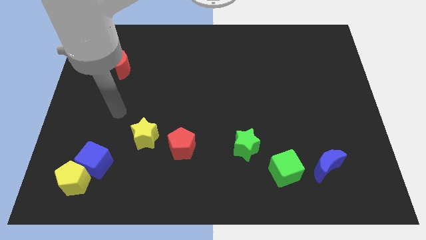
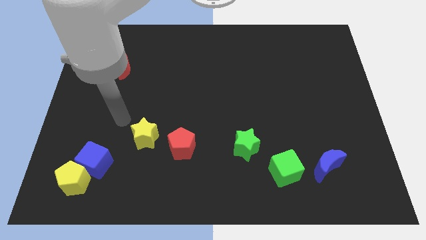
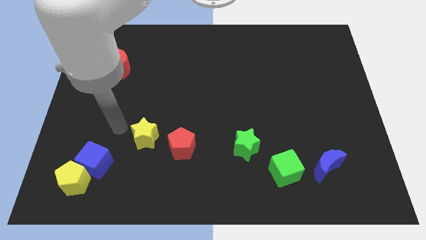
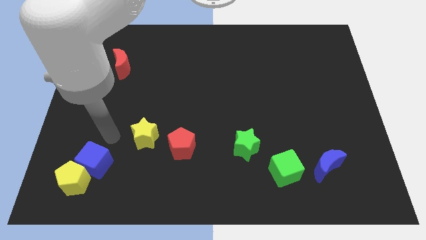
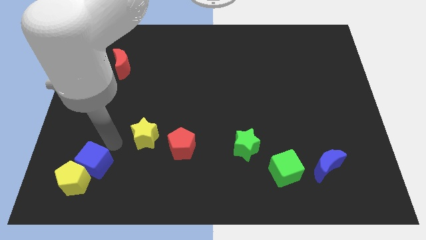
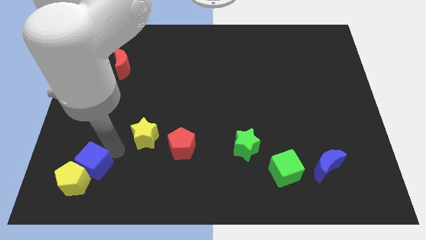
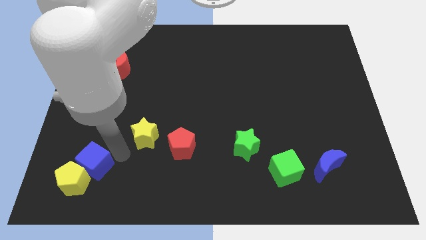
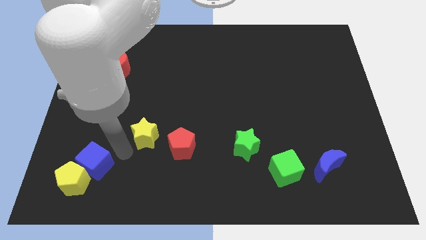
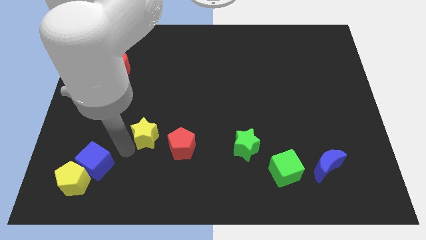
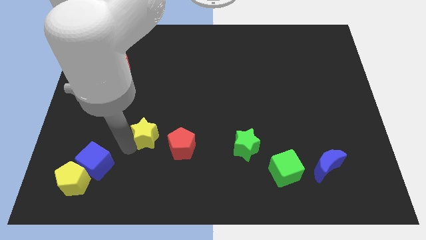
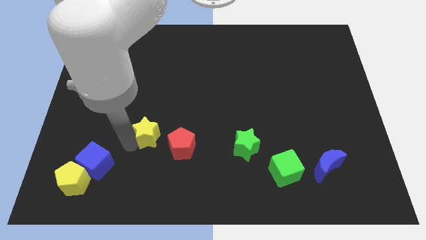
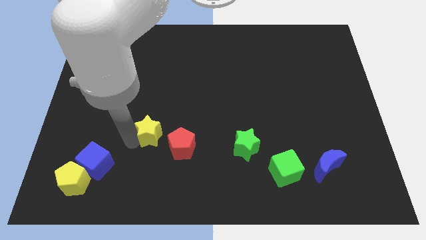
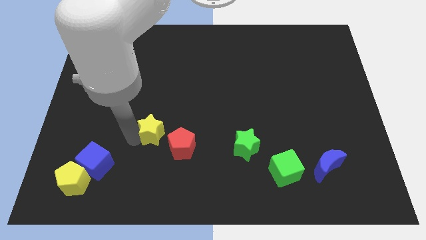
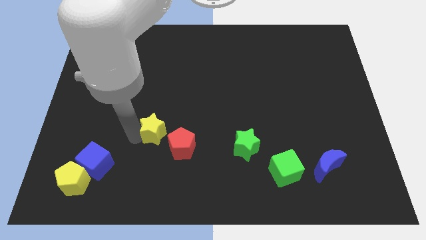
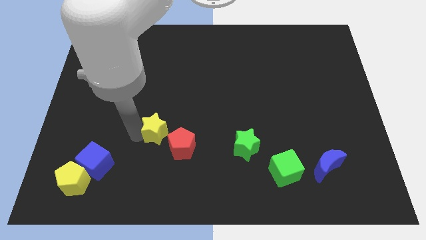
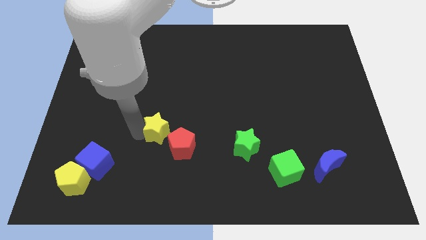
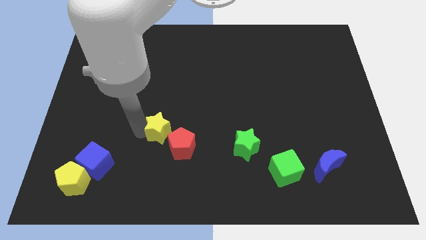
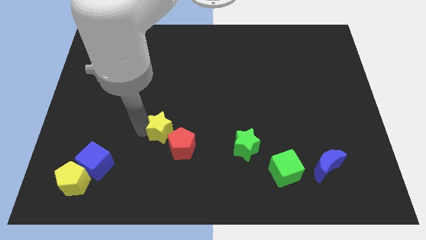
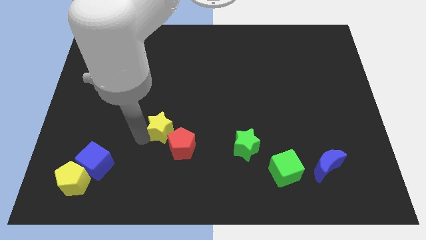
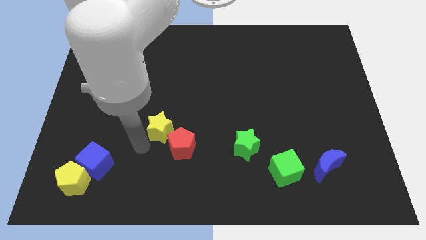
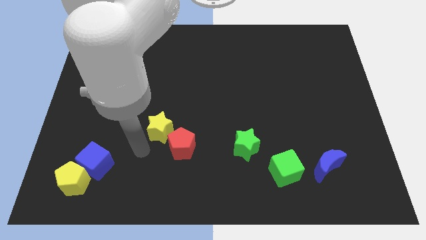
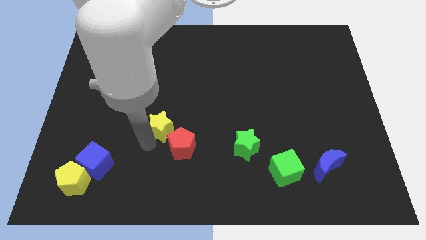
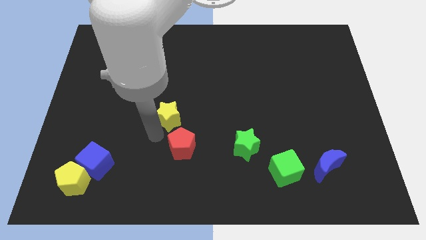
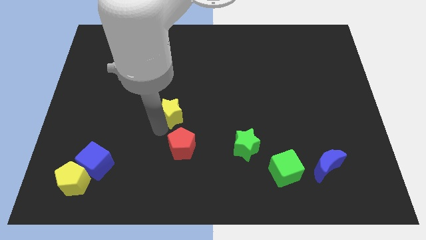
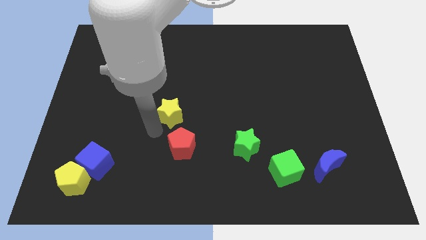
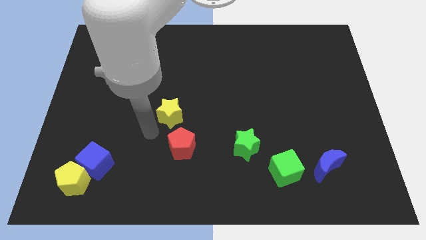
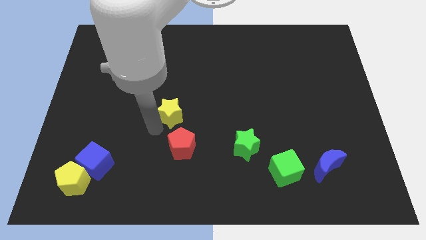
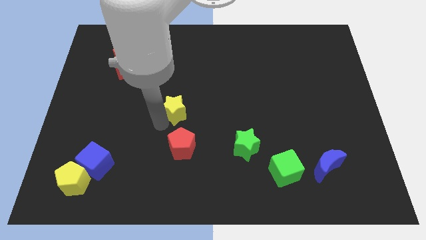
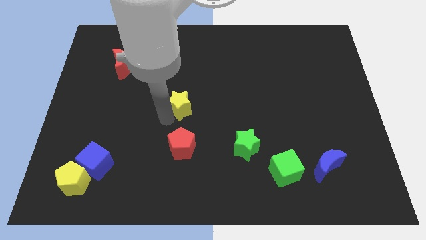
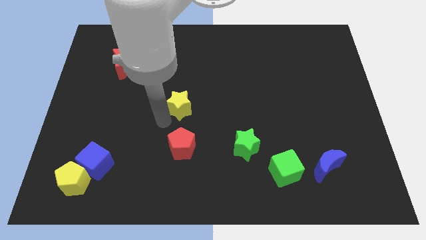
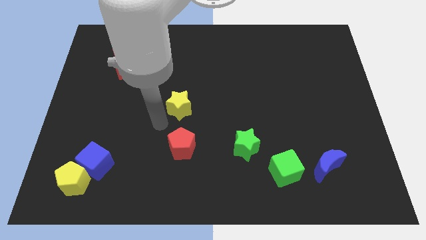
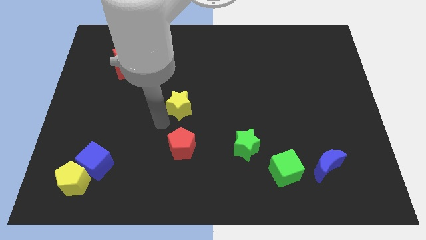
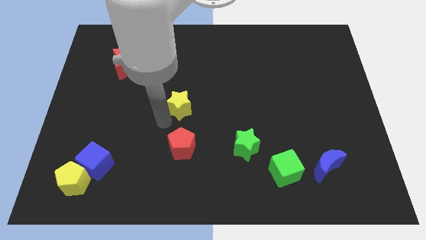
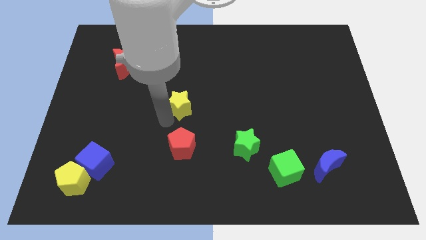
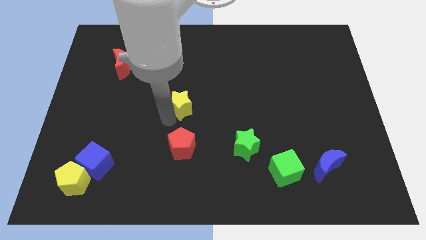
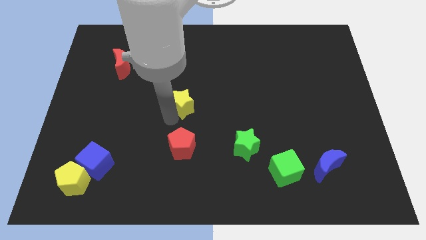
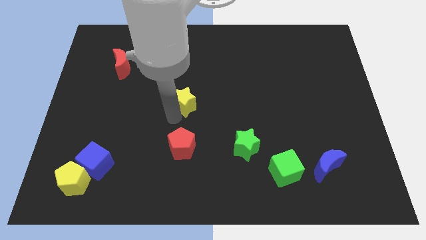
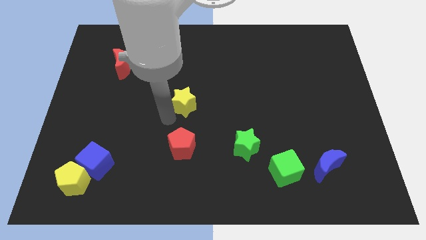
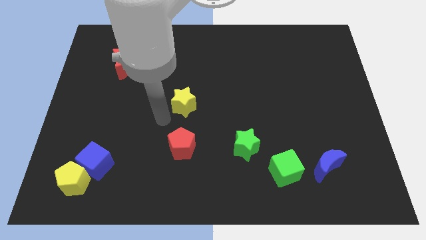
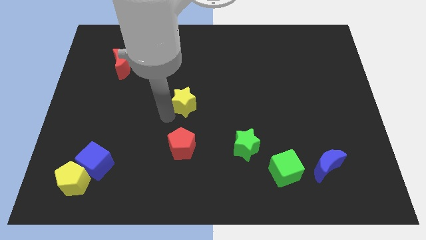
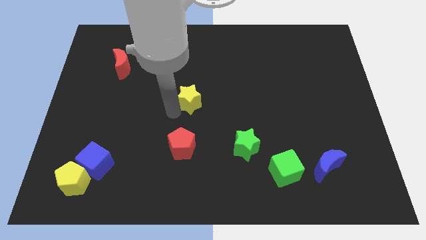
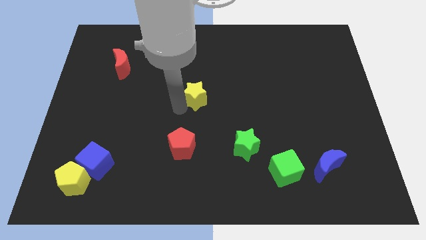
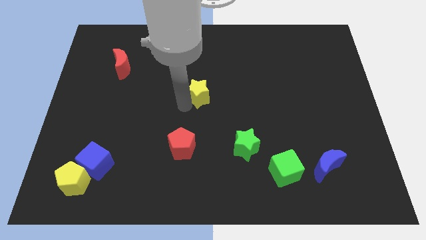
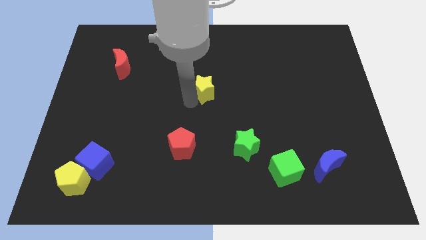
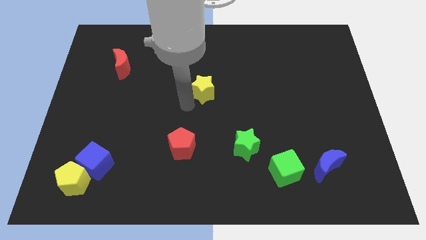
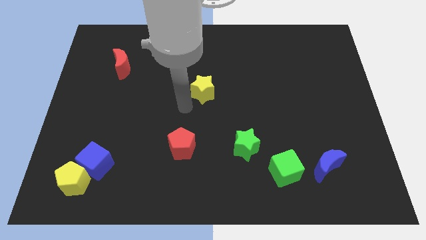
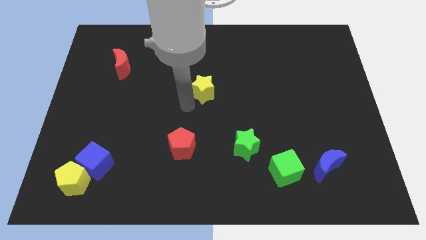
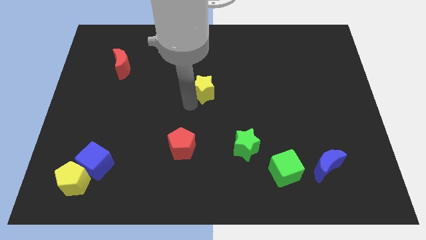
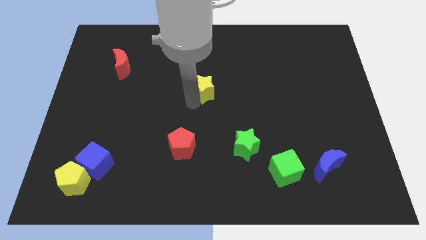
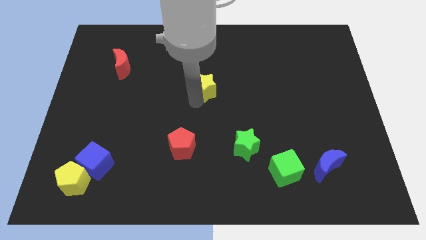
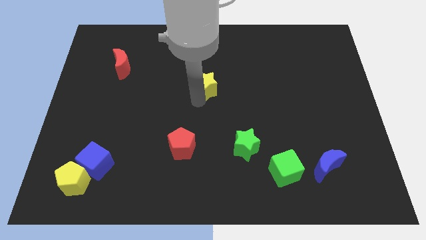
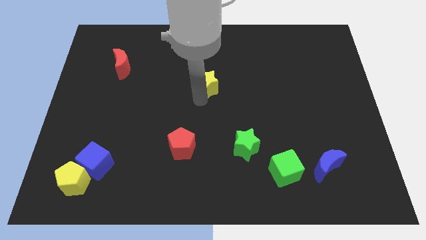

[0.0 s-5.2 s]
push the yellow star up and to the right diagonally

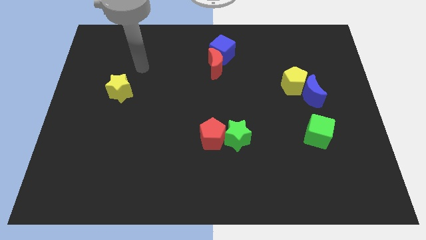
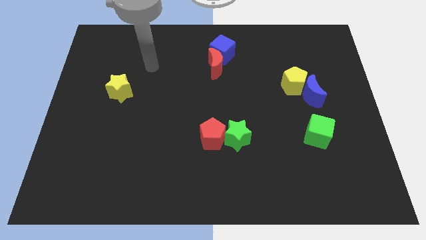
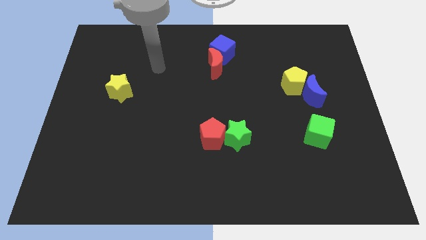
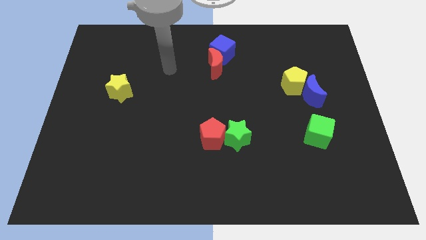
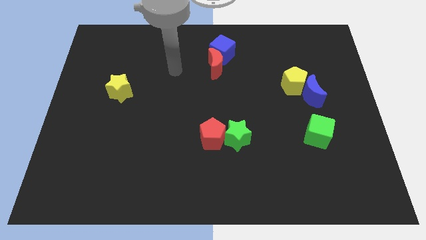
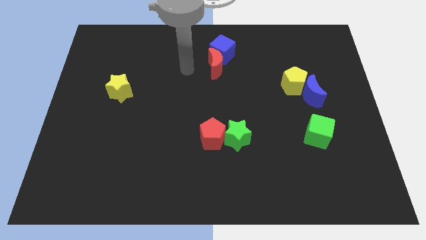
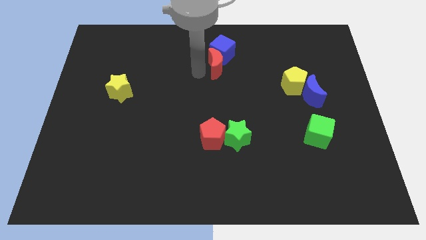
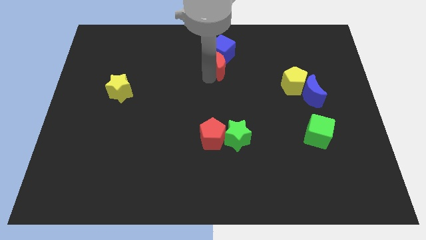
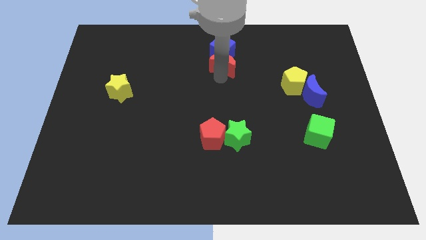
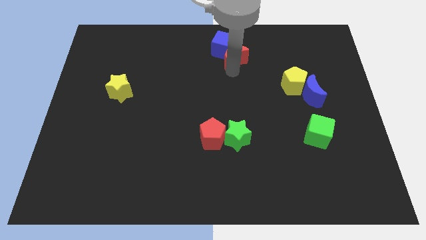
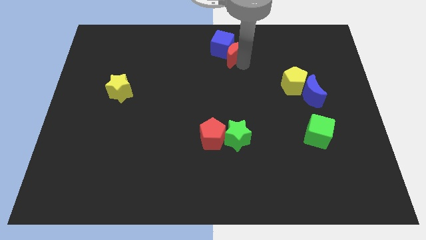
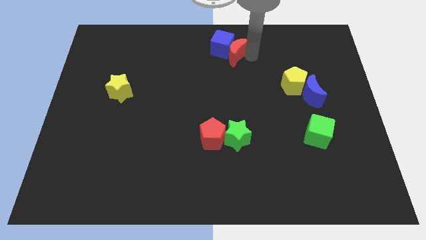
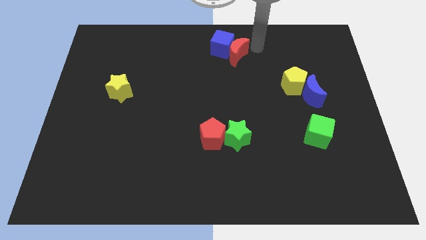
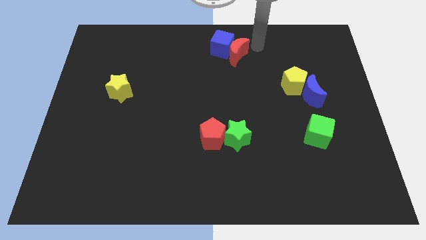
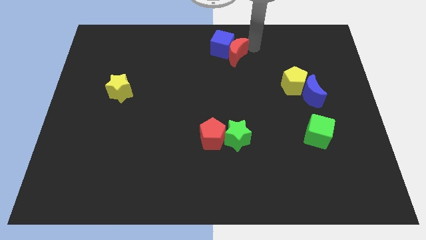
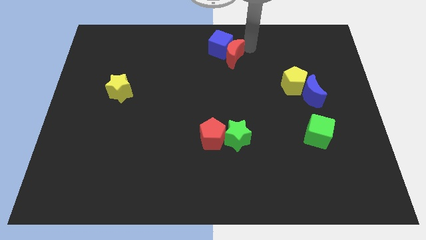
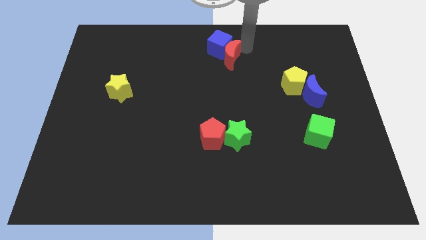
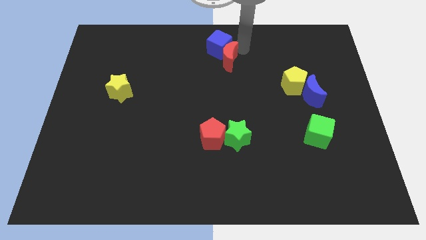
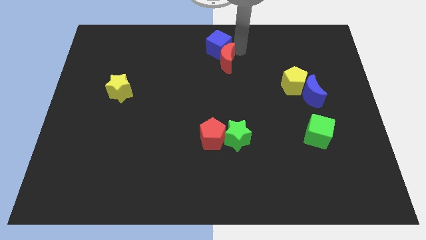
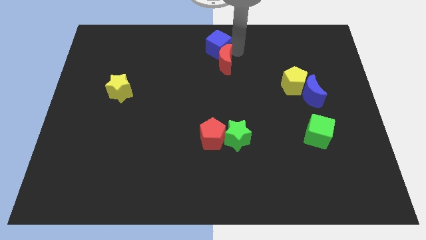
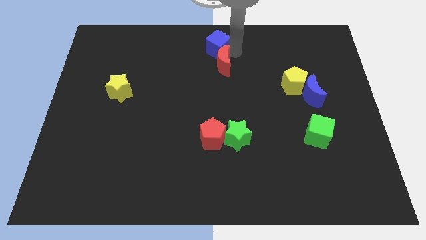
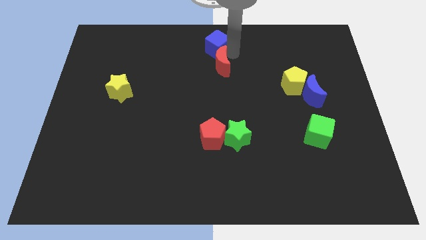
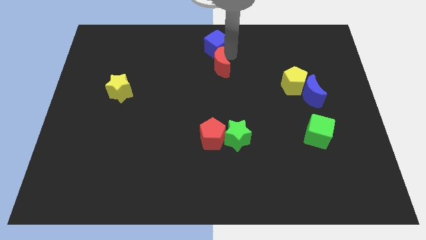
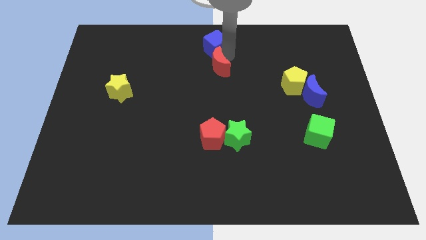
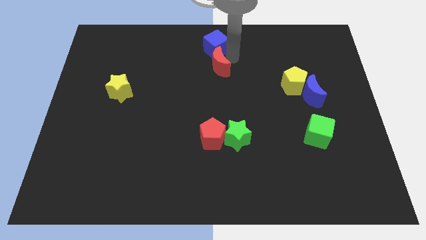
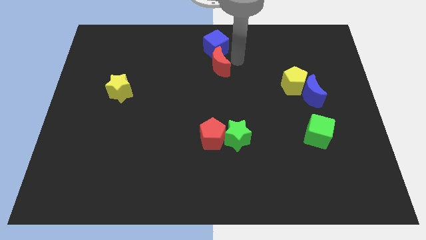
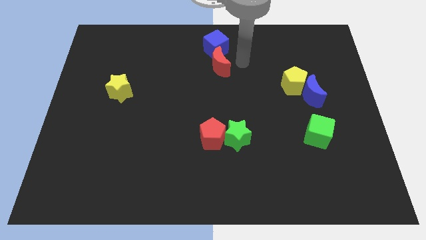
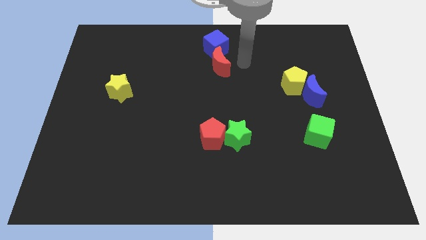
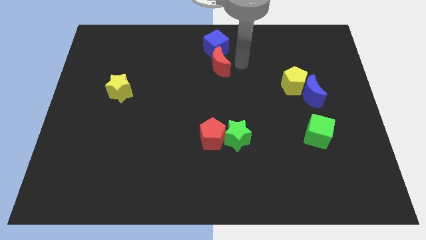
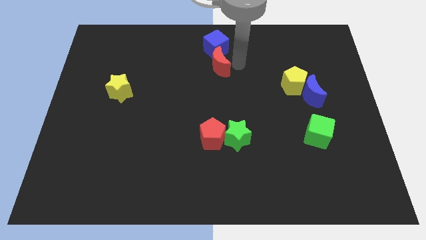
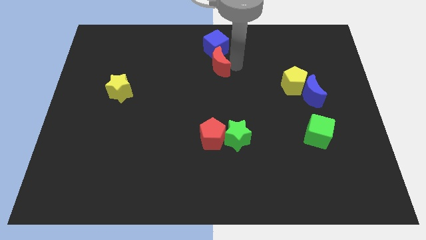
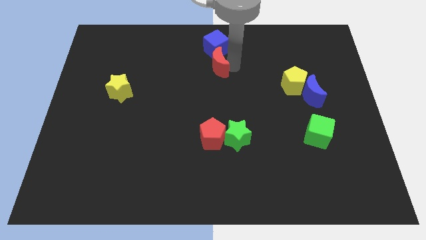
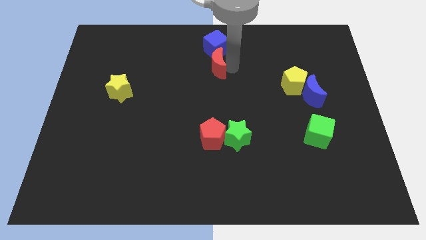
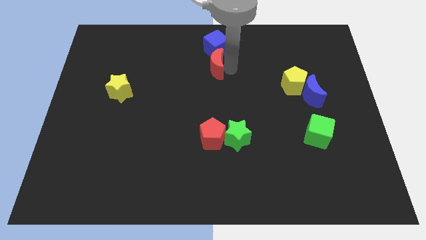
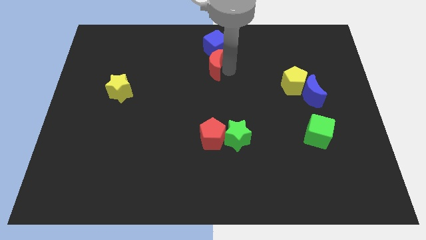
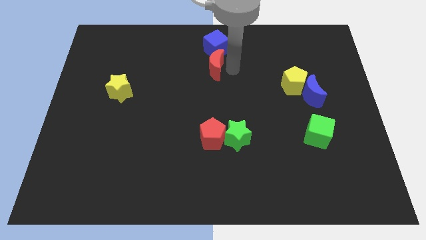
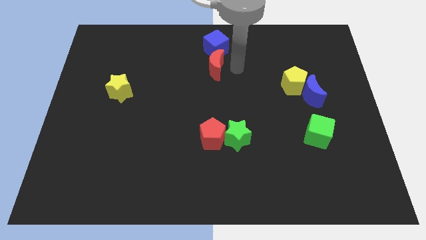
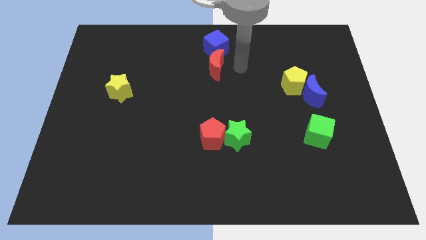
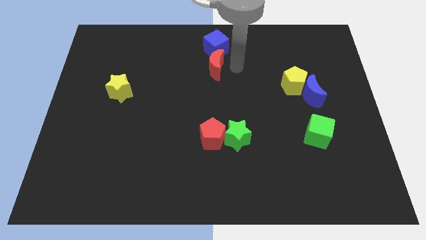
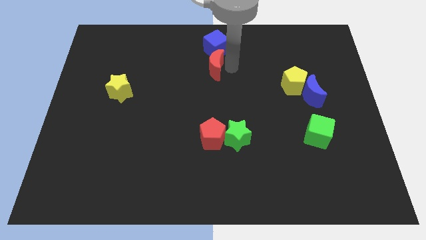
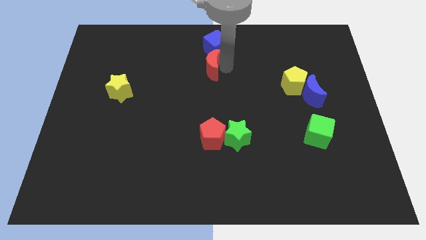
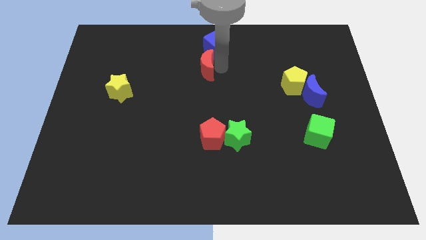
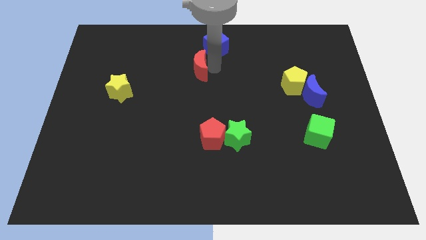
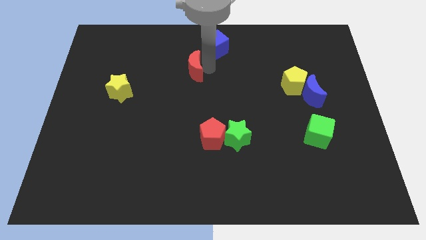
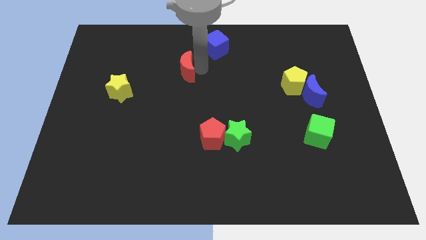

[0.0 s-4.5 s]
push the red moon left somewhat
